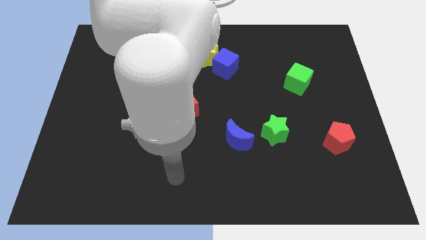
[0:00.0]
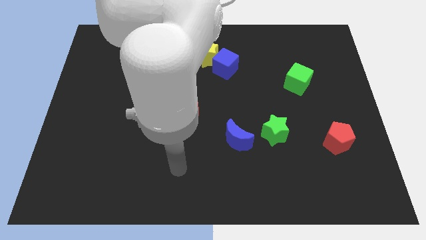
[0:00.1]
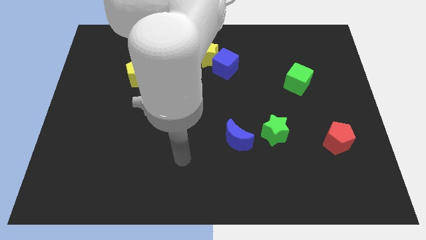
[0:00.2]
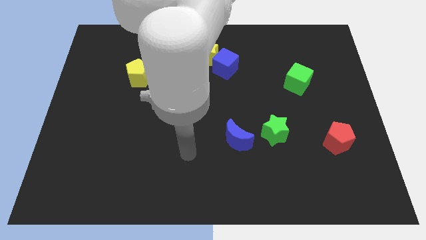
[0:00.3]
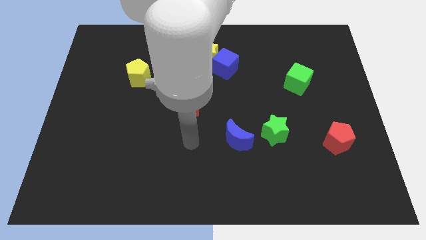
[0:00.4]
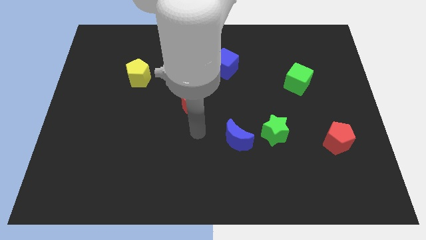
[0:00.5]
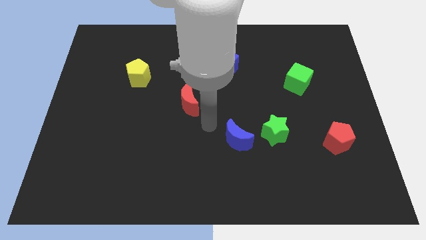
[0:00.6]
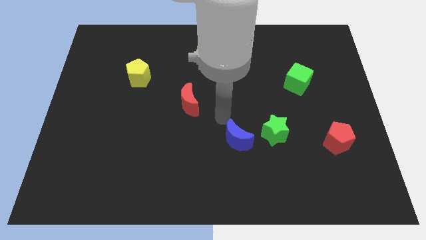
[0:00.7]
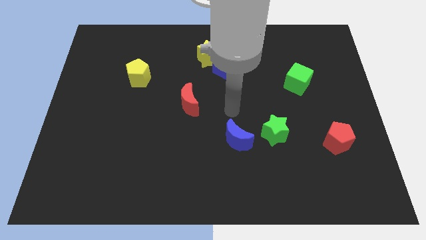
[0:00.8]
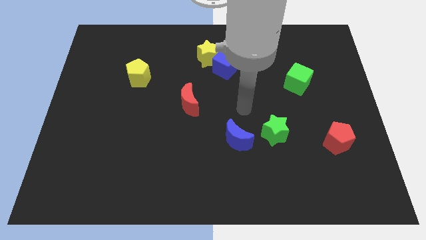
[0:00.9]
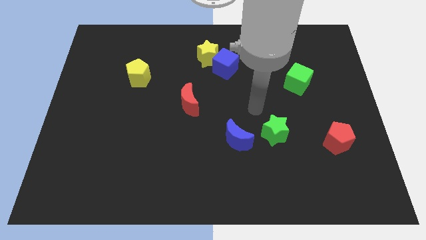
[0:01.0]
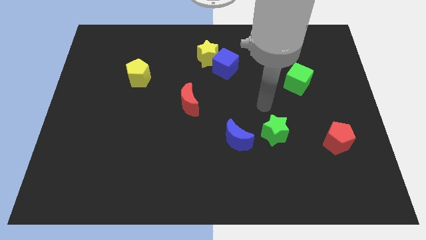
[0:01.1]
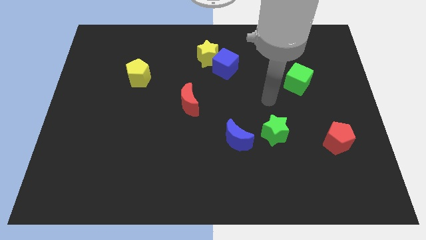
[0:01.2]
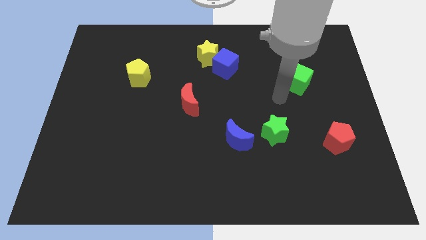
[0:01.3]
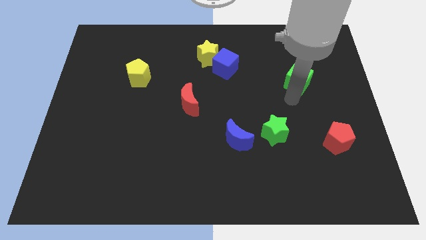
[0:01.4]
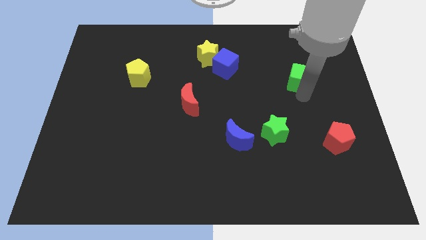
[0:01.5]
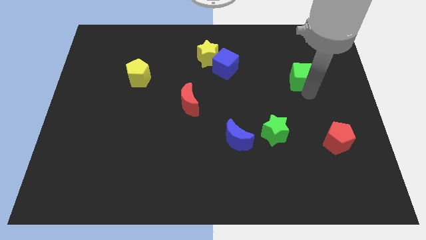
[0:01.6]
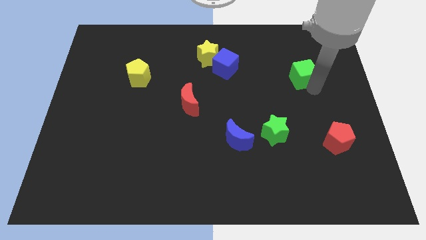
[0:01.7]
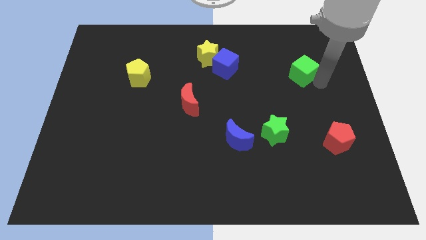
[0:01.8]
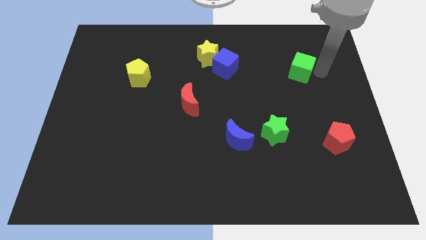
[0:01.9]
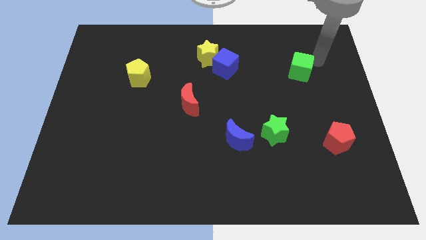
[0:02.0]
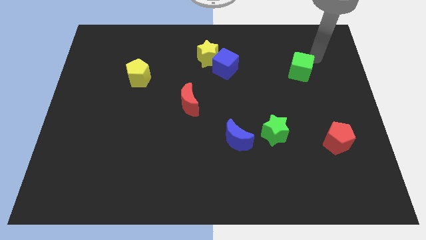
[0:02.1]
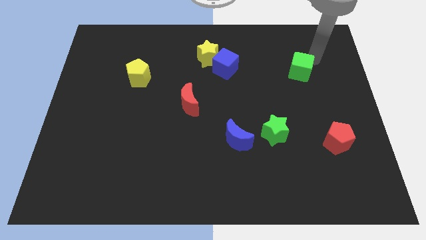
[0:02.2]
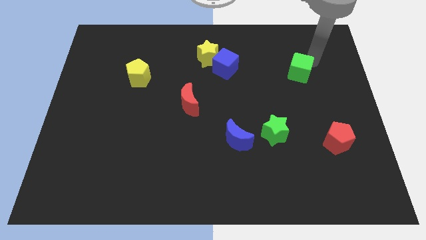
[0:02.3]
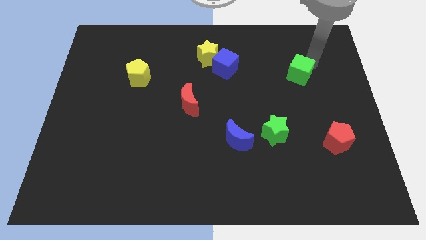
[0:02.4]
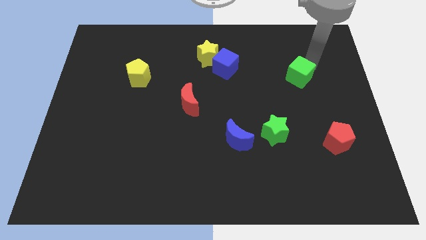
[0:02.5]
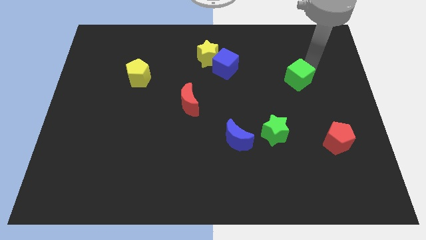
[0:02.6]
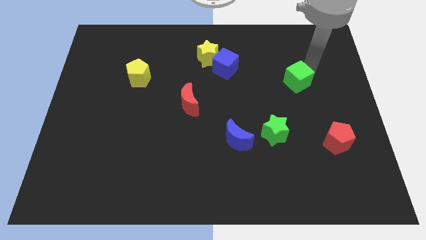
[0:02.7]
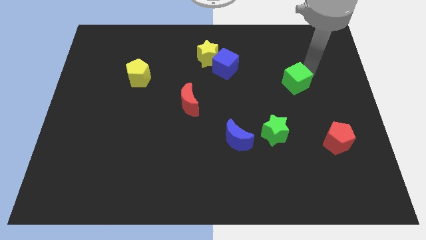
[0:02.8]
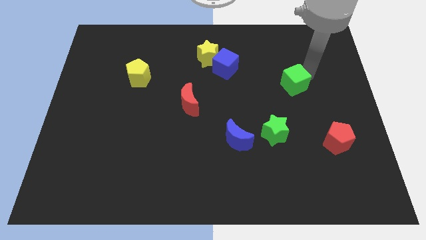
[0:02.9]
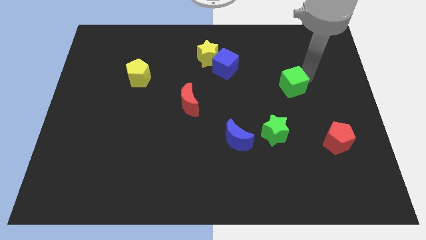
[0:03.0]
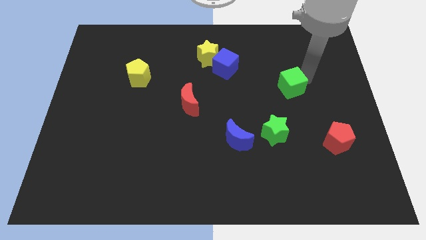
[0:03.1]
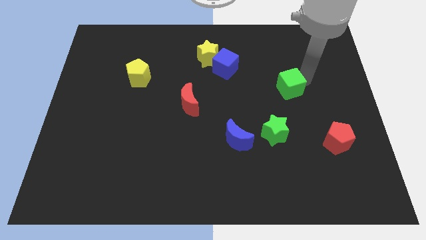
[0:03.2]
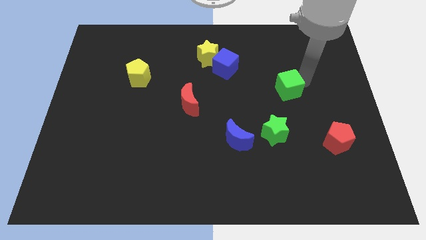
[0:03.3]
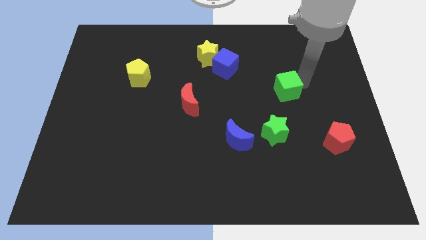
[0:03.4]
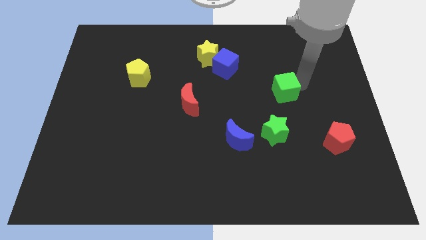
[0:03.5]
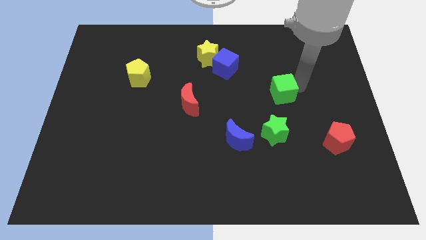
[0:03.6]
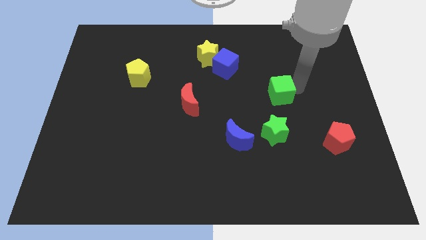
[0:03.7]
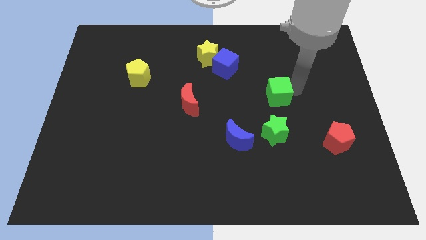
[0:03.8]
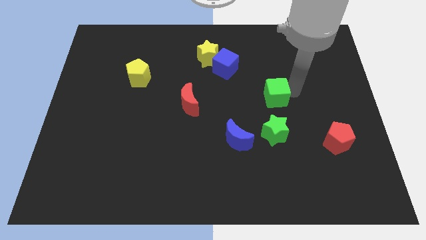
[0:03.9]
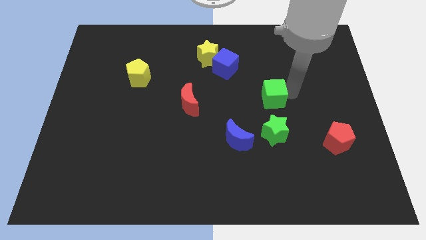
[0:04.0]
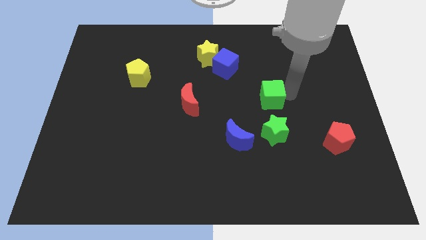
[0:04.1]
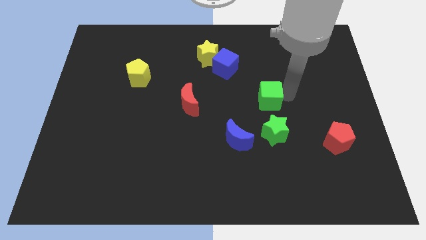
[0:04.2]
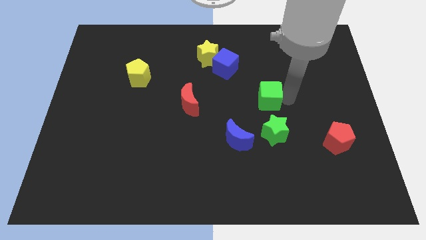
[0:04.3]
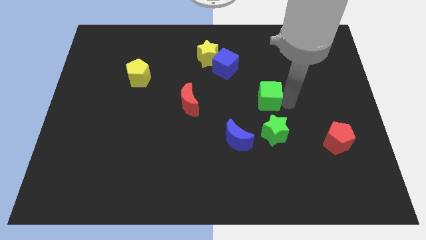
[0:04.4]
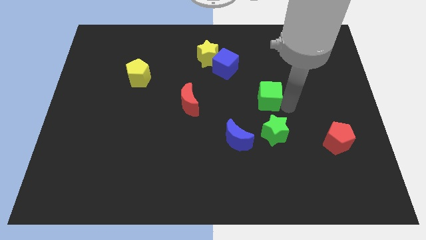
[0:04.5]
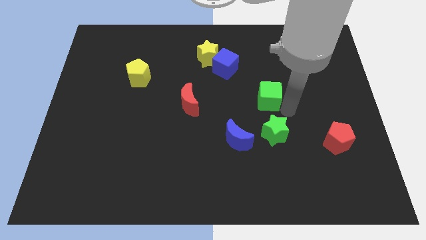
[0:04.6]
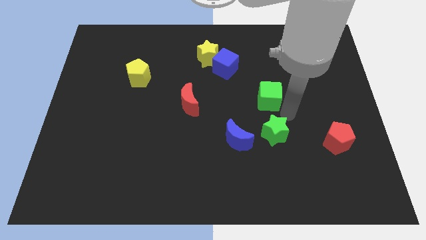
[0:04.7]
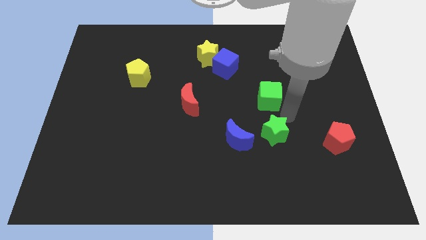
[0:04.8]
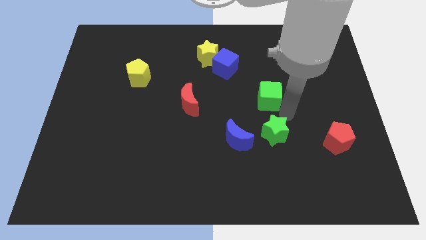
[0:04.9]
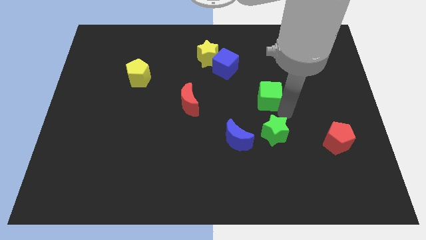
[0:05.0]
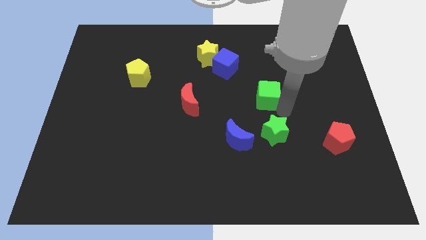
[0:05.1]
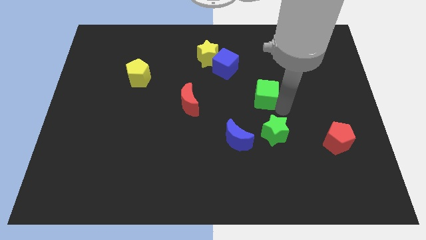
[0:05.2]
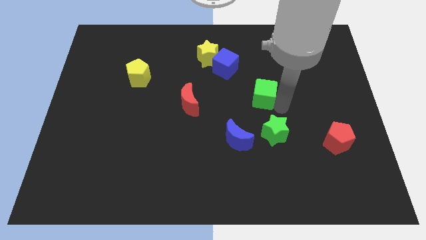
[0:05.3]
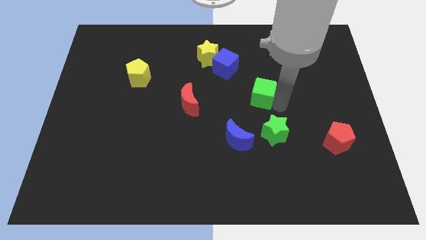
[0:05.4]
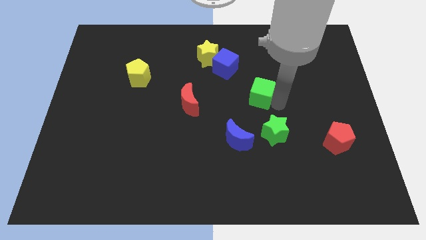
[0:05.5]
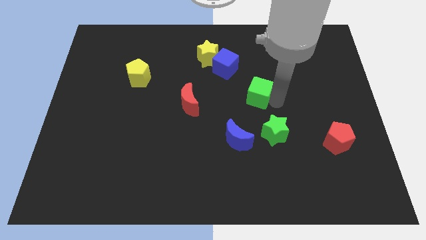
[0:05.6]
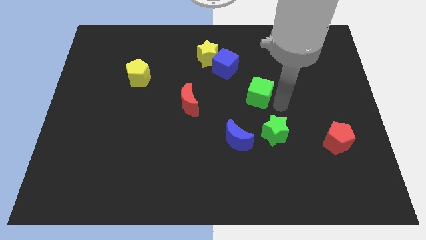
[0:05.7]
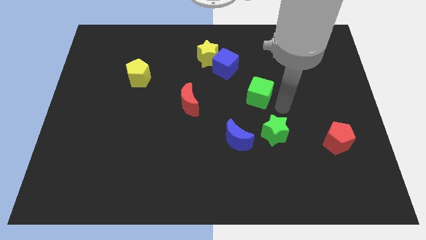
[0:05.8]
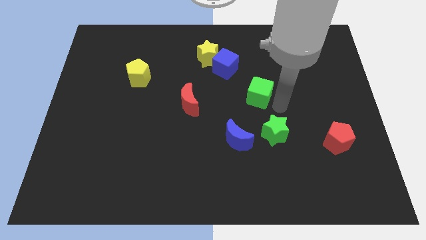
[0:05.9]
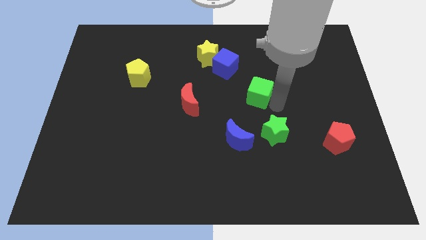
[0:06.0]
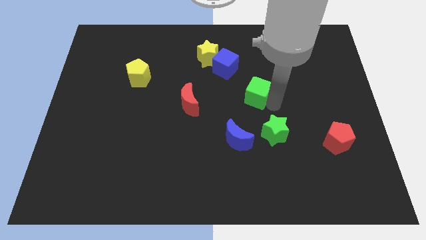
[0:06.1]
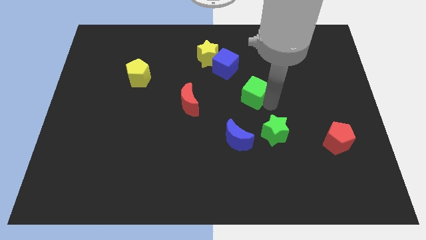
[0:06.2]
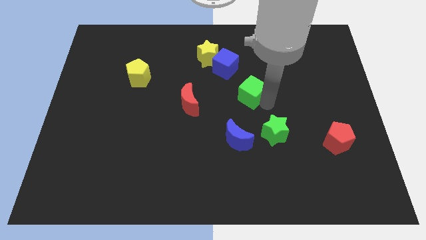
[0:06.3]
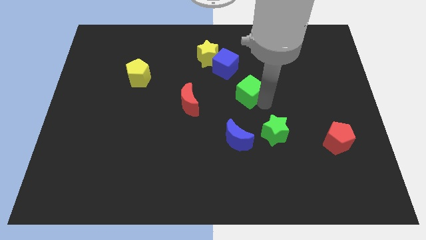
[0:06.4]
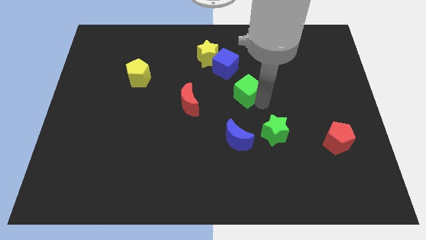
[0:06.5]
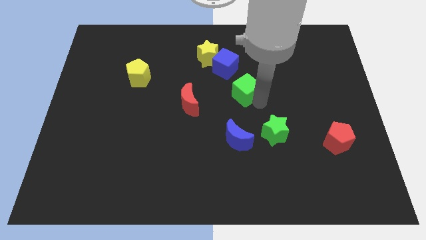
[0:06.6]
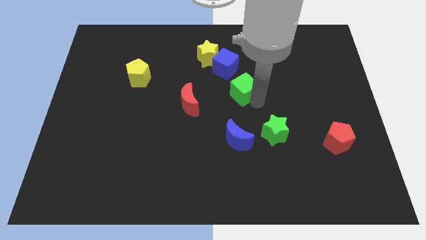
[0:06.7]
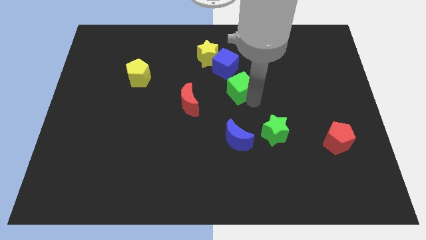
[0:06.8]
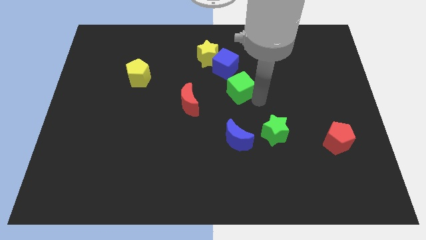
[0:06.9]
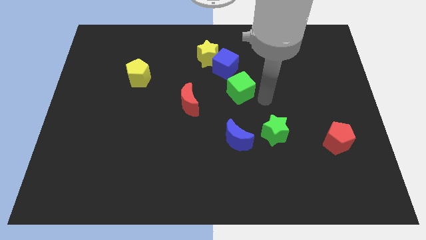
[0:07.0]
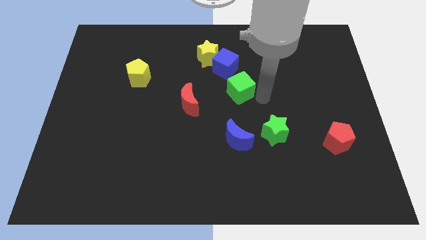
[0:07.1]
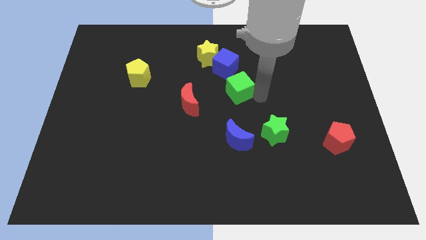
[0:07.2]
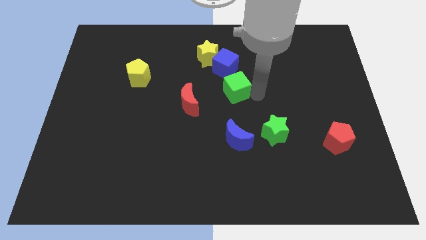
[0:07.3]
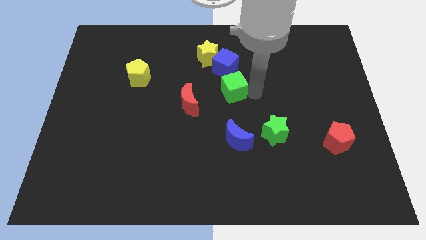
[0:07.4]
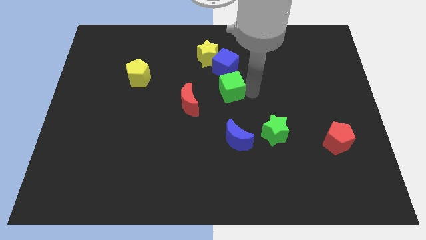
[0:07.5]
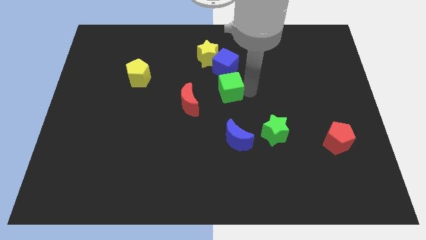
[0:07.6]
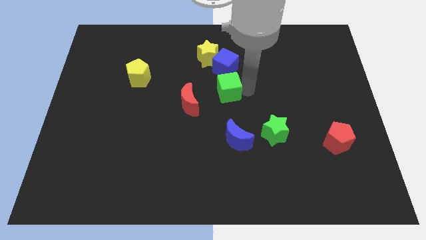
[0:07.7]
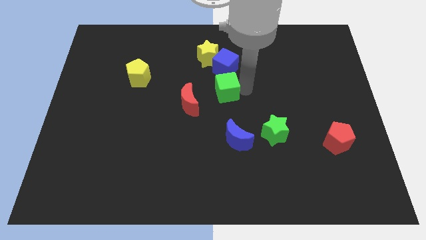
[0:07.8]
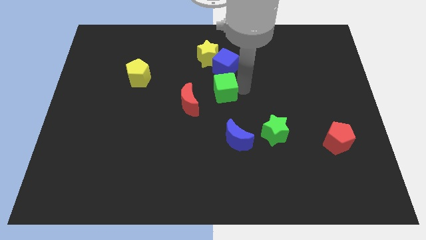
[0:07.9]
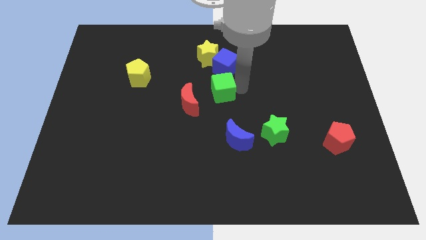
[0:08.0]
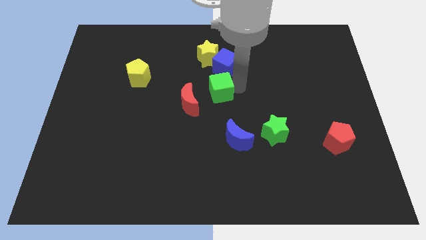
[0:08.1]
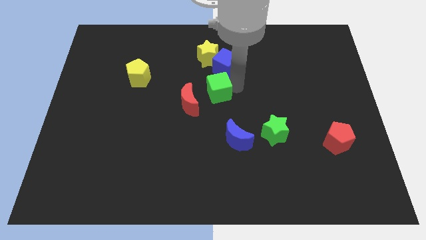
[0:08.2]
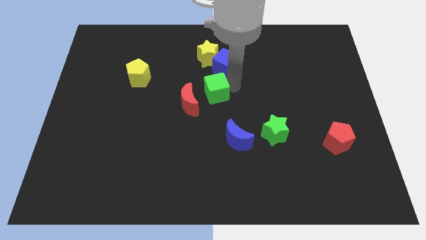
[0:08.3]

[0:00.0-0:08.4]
push the green cube to the left
